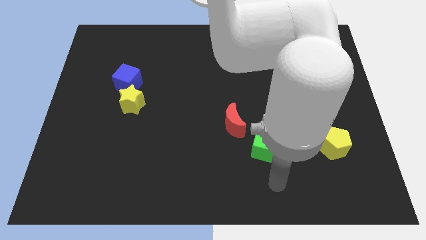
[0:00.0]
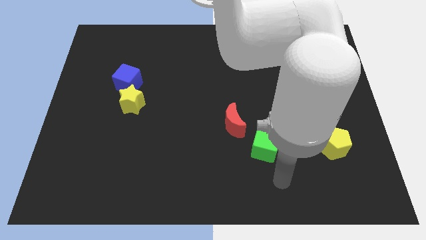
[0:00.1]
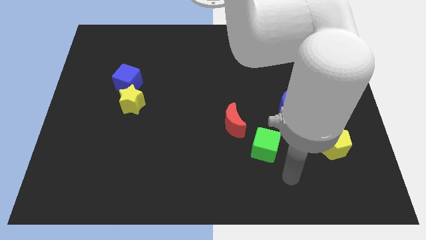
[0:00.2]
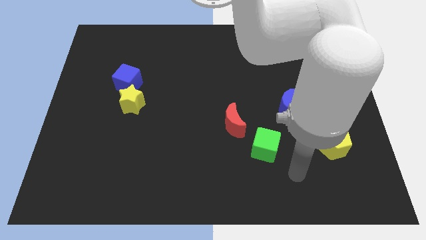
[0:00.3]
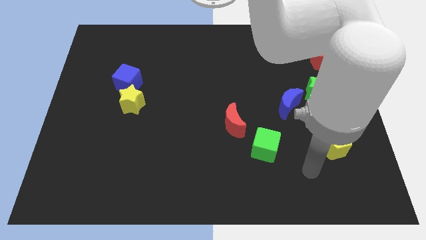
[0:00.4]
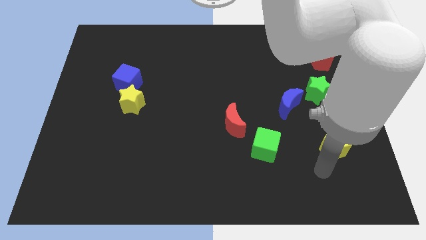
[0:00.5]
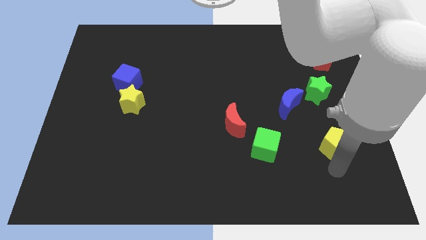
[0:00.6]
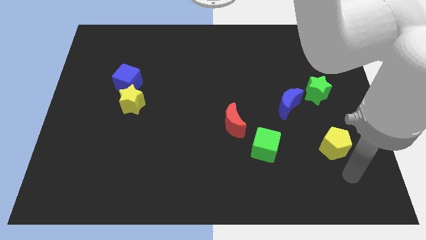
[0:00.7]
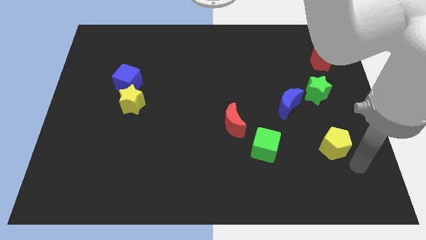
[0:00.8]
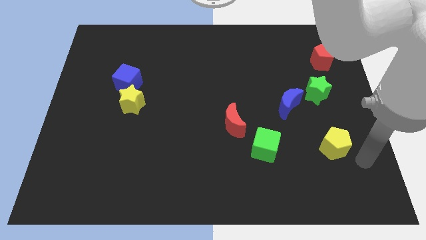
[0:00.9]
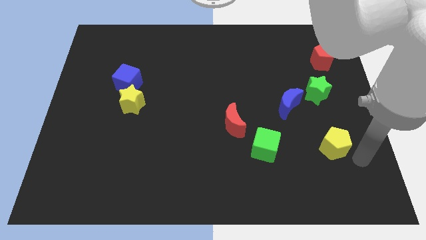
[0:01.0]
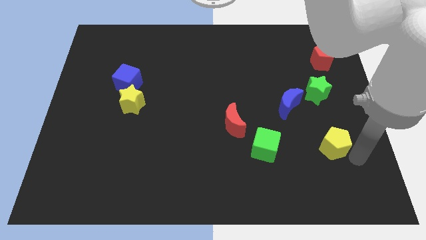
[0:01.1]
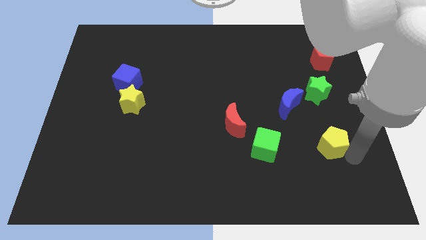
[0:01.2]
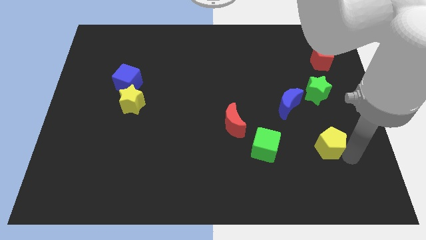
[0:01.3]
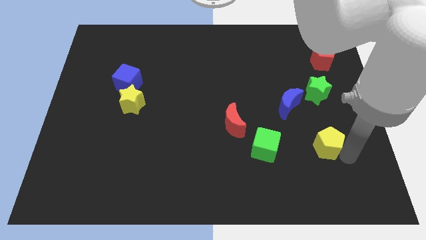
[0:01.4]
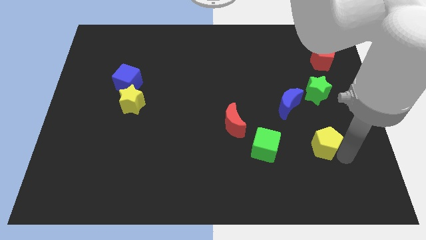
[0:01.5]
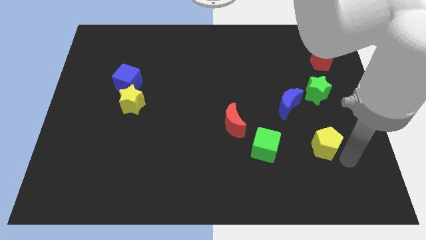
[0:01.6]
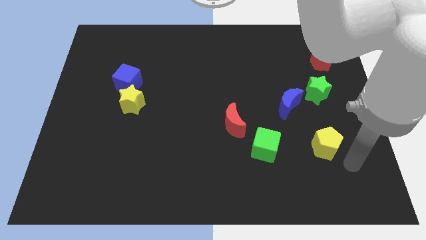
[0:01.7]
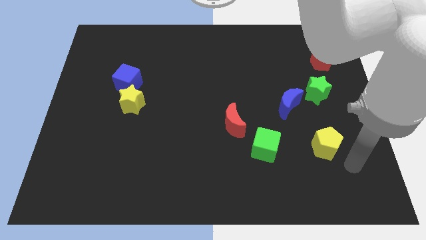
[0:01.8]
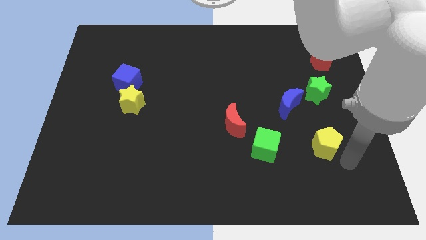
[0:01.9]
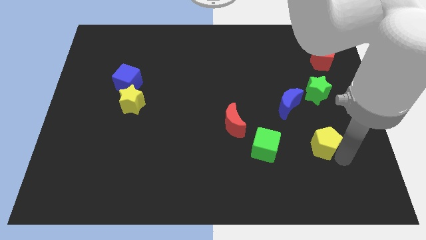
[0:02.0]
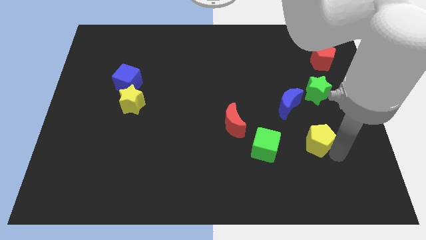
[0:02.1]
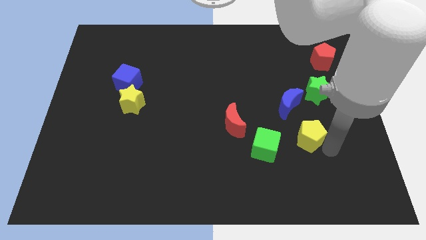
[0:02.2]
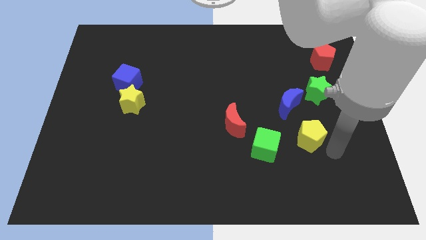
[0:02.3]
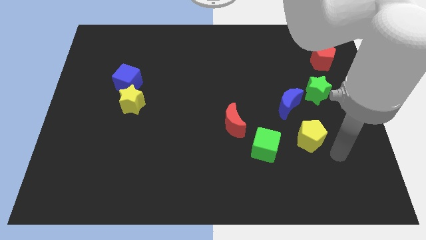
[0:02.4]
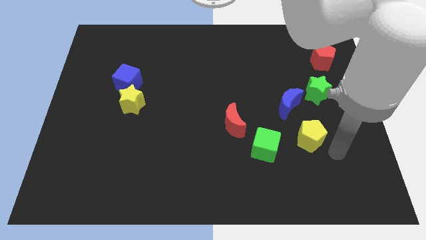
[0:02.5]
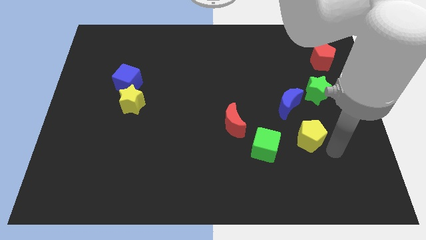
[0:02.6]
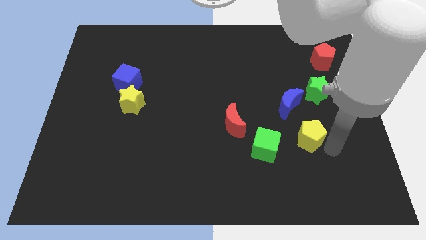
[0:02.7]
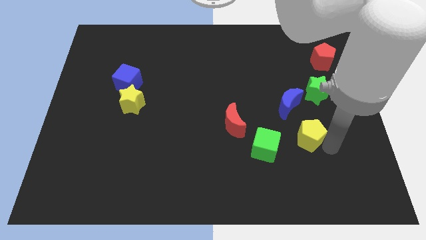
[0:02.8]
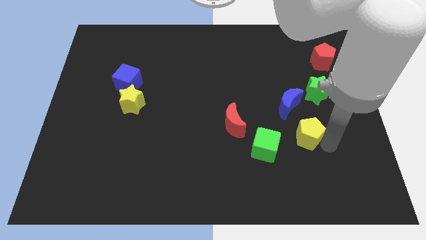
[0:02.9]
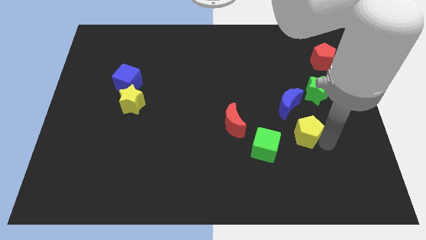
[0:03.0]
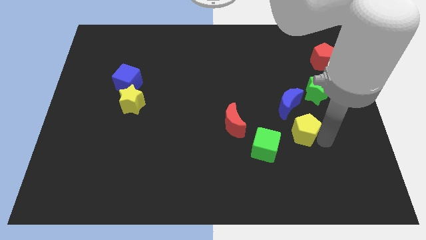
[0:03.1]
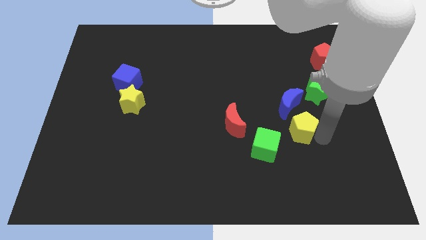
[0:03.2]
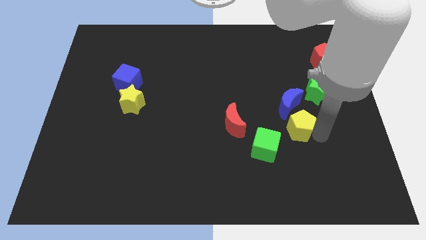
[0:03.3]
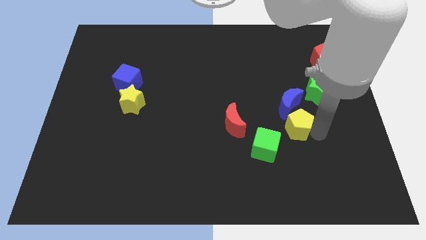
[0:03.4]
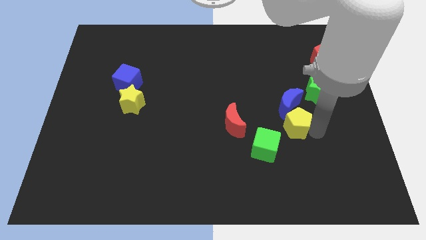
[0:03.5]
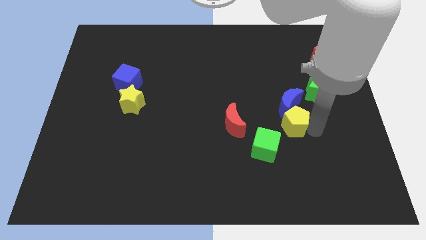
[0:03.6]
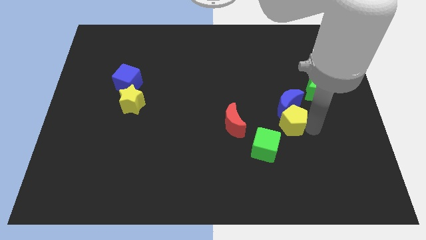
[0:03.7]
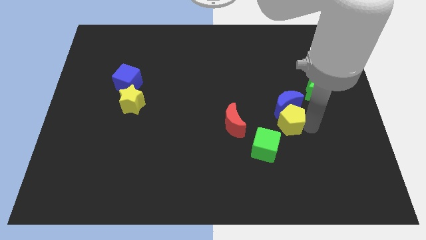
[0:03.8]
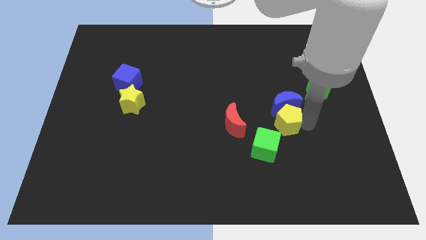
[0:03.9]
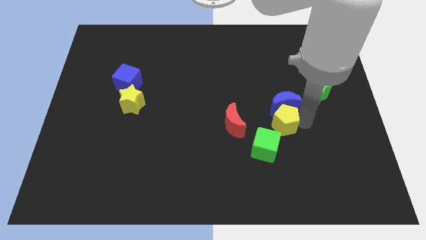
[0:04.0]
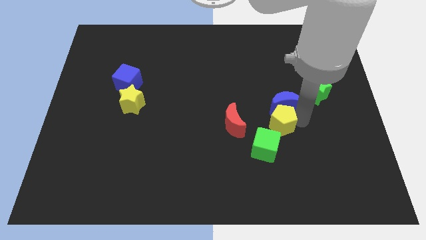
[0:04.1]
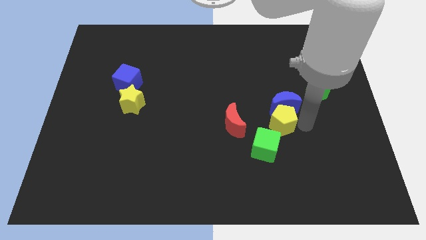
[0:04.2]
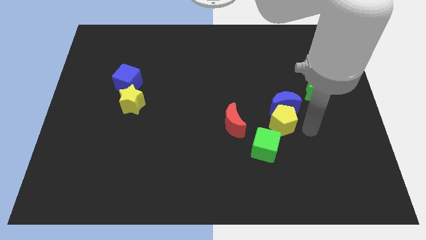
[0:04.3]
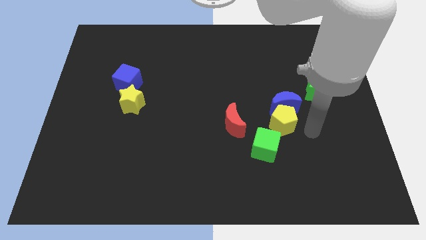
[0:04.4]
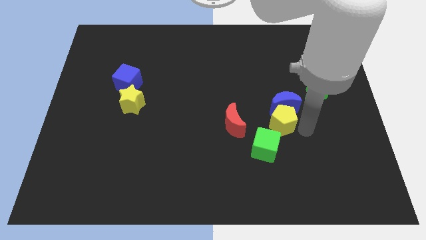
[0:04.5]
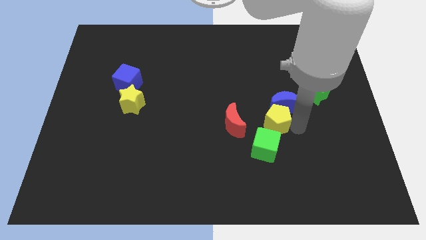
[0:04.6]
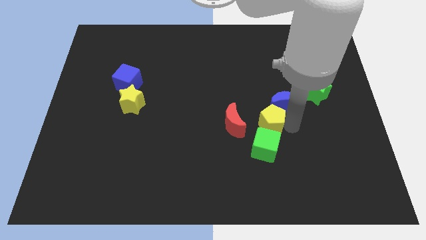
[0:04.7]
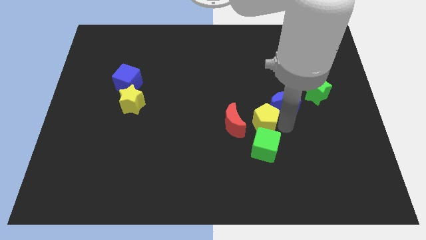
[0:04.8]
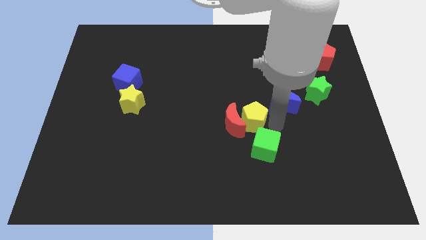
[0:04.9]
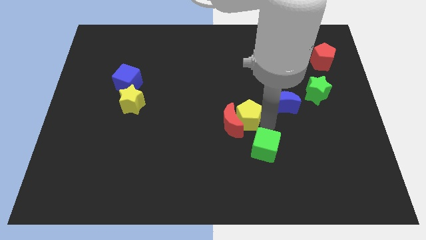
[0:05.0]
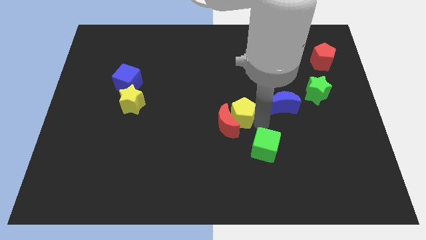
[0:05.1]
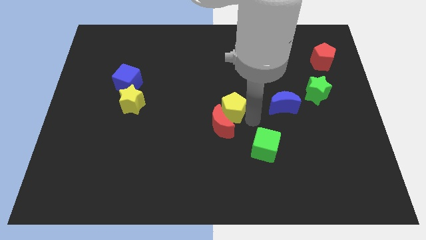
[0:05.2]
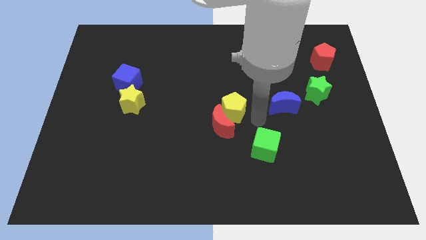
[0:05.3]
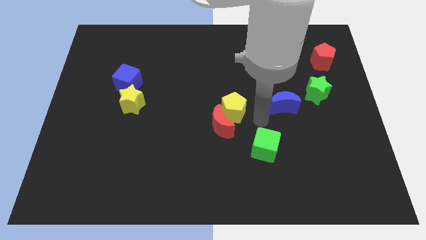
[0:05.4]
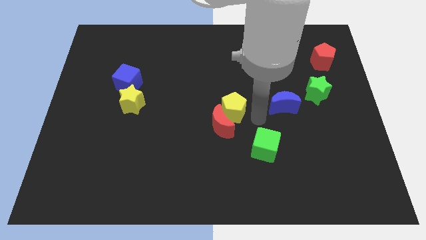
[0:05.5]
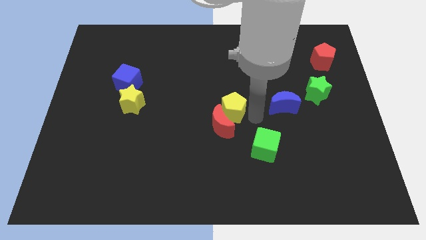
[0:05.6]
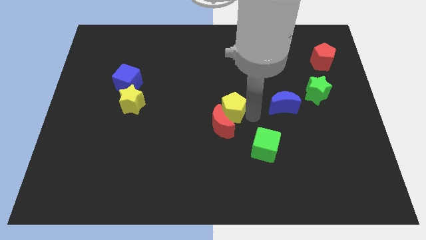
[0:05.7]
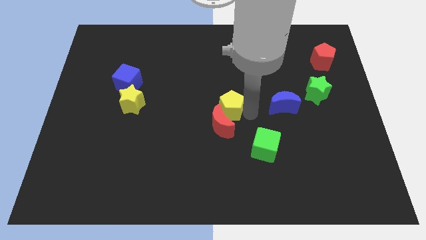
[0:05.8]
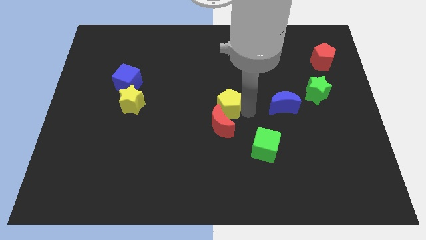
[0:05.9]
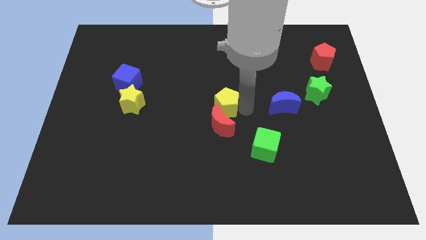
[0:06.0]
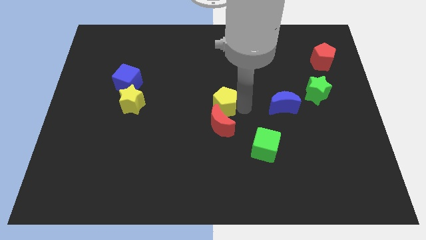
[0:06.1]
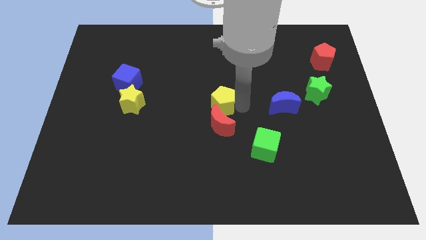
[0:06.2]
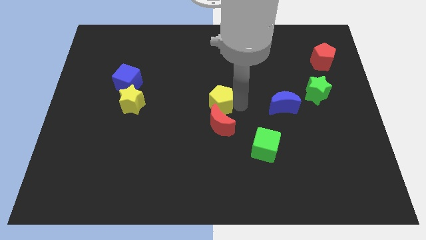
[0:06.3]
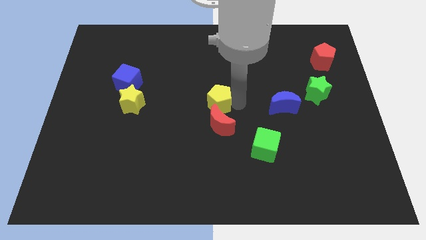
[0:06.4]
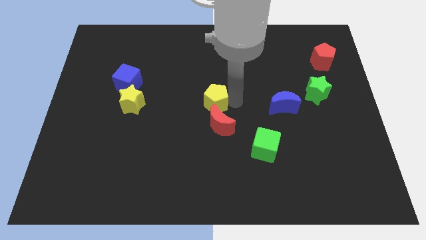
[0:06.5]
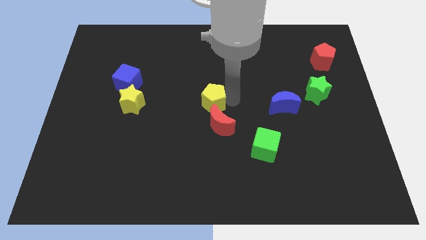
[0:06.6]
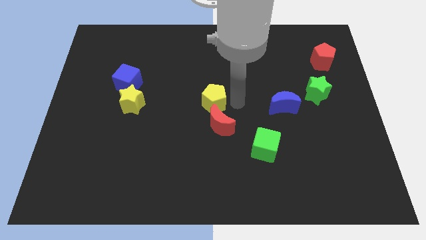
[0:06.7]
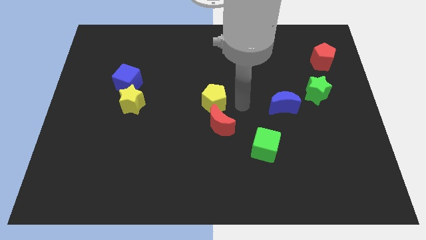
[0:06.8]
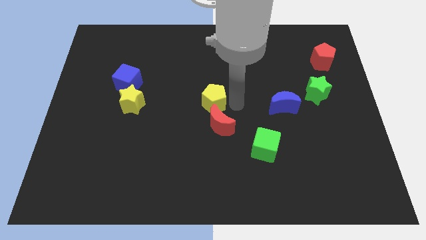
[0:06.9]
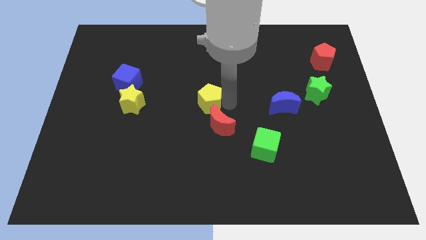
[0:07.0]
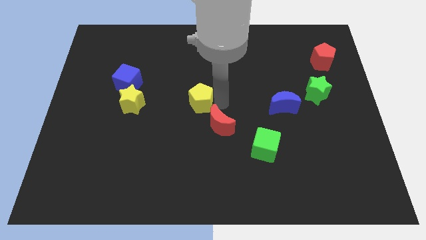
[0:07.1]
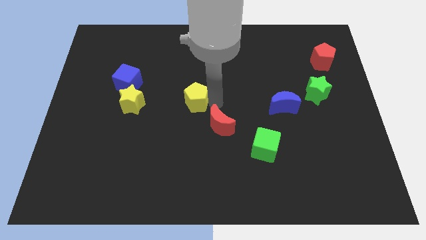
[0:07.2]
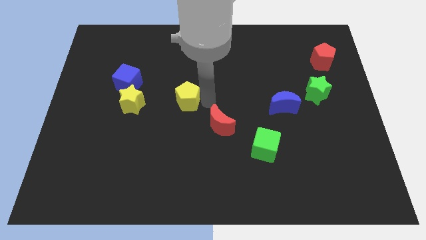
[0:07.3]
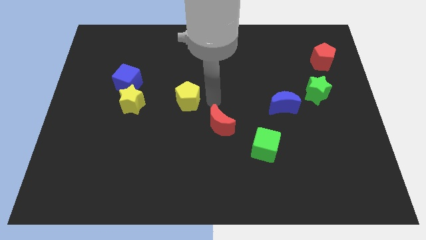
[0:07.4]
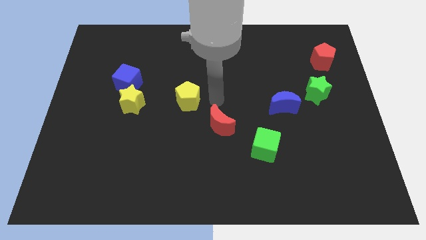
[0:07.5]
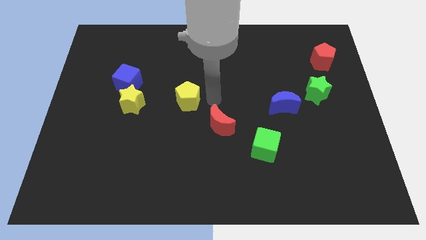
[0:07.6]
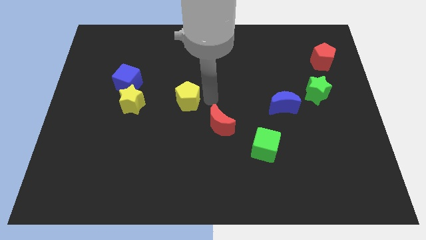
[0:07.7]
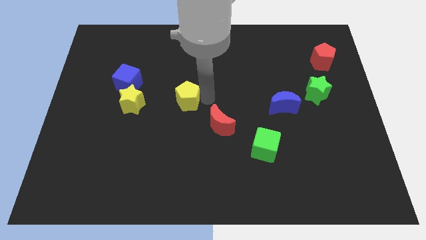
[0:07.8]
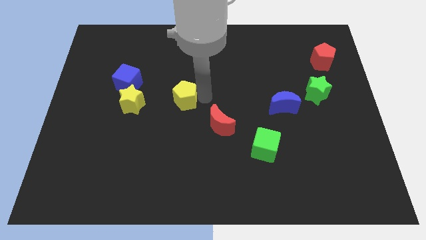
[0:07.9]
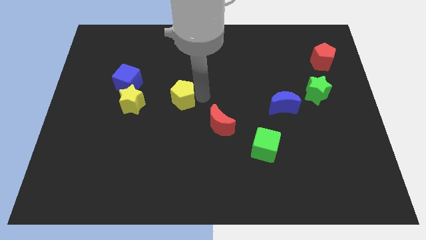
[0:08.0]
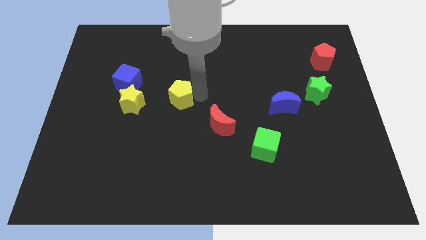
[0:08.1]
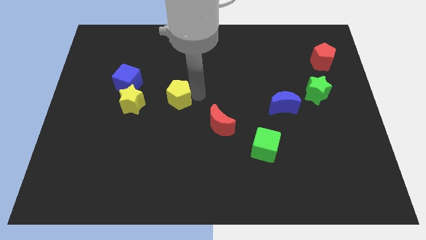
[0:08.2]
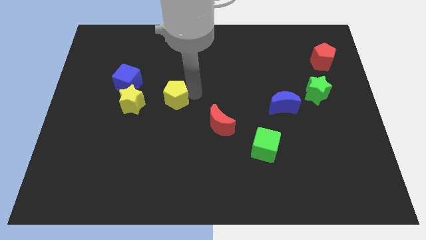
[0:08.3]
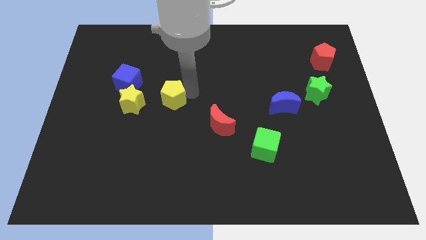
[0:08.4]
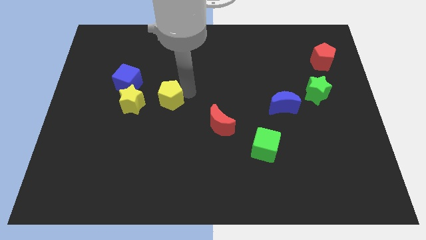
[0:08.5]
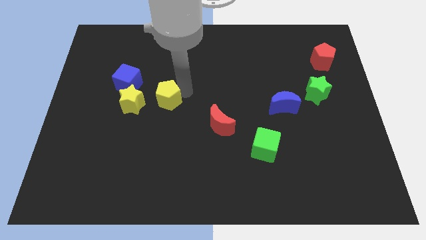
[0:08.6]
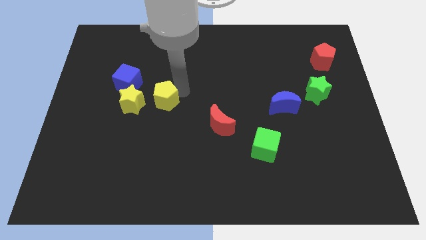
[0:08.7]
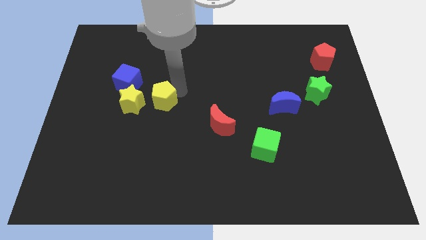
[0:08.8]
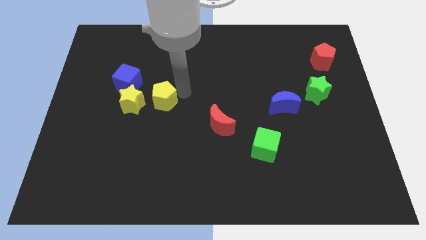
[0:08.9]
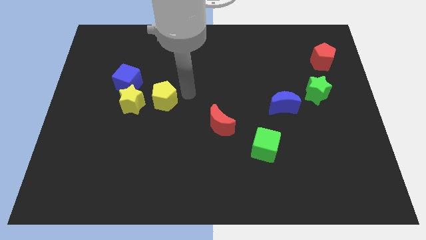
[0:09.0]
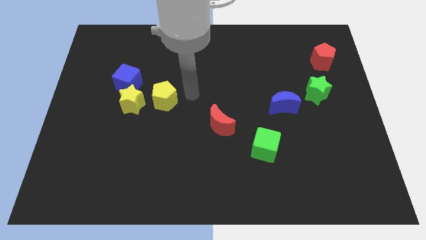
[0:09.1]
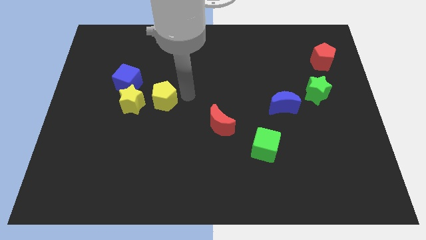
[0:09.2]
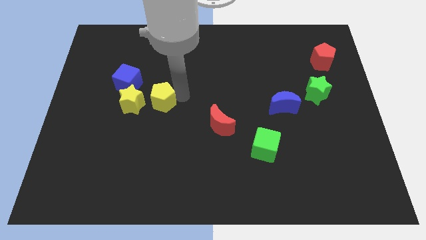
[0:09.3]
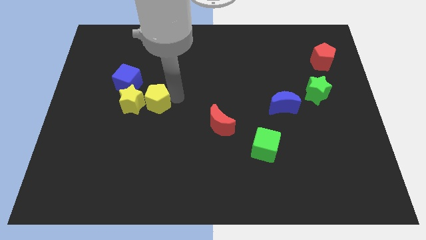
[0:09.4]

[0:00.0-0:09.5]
push the yellow pentagon towards the yellow star
